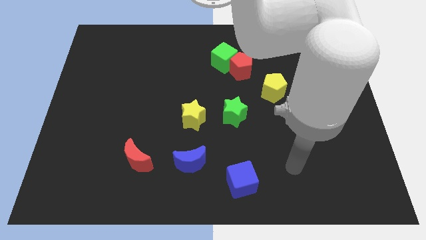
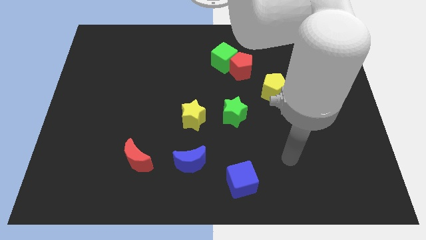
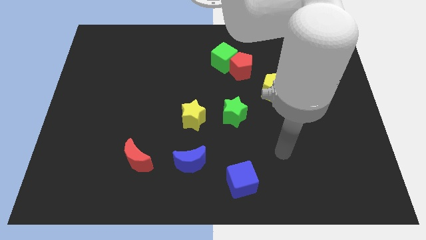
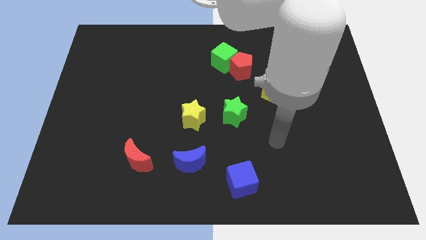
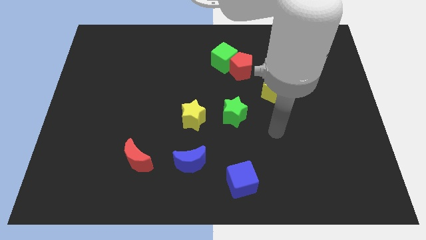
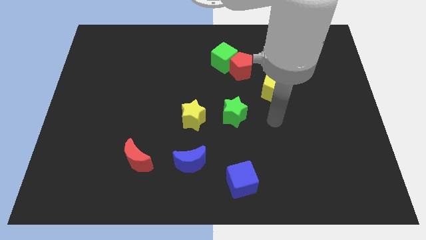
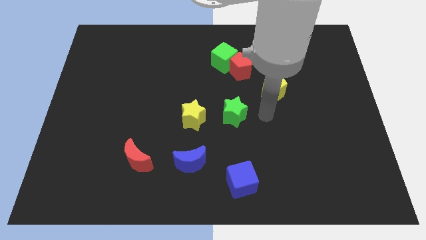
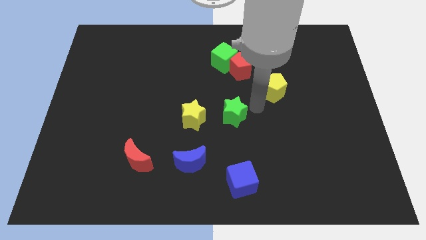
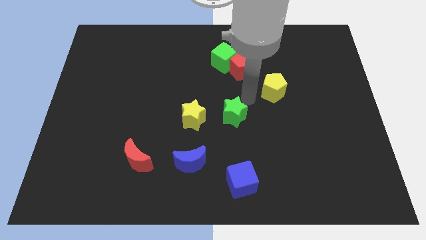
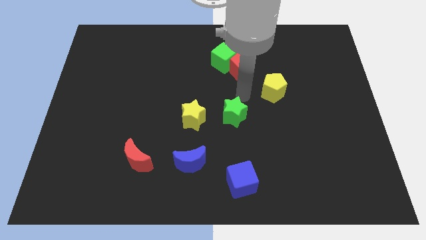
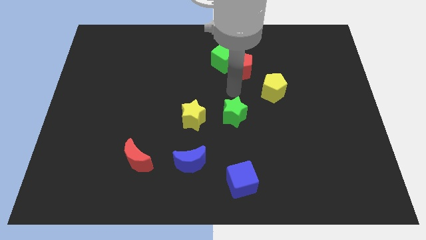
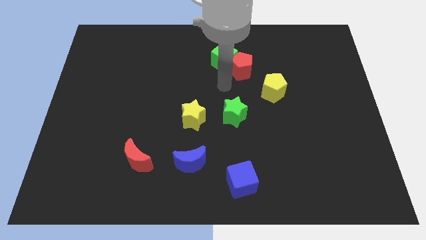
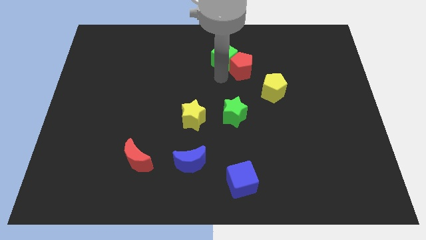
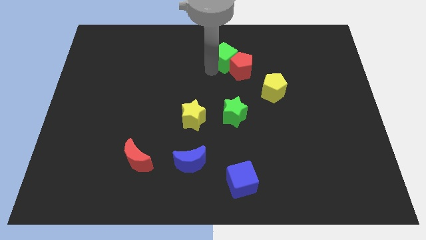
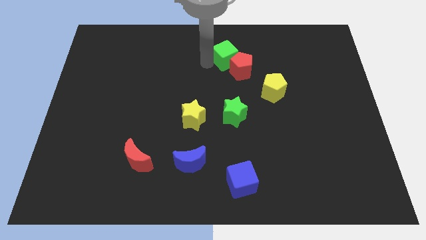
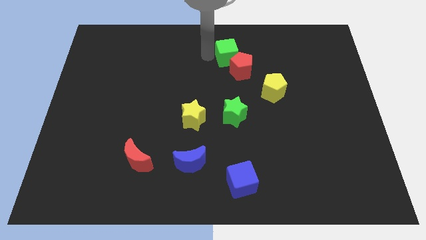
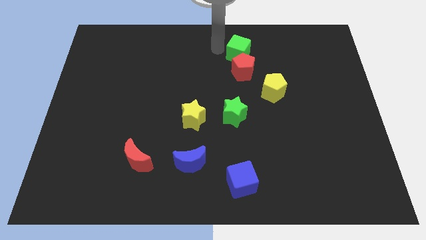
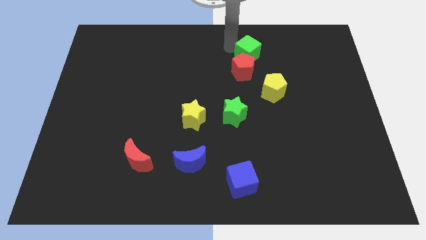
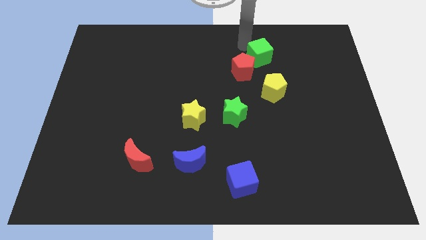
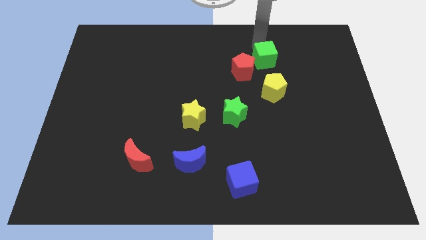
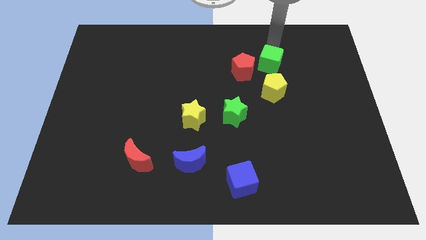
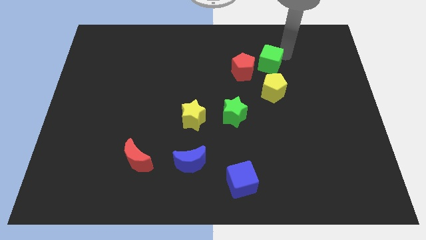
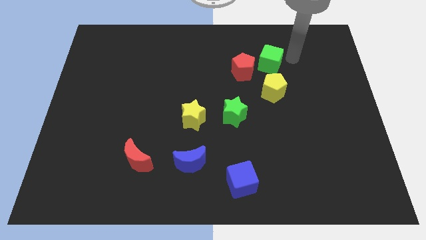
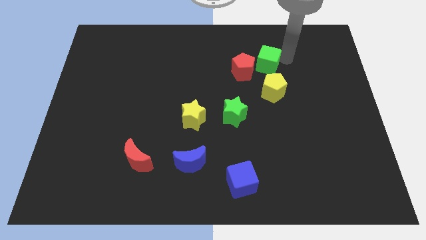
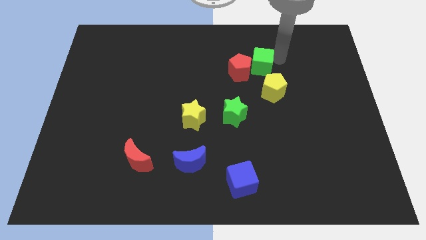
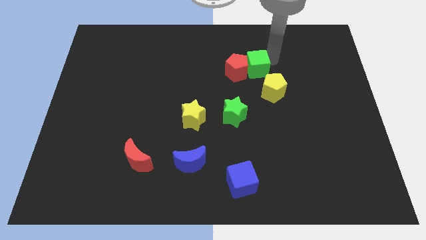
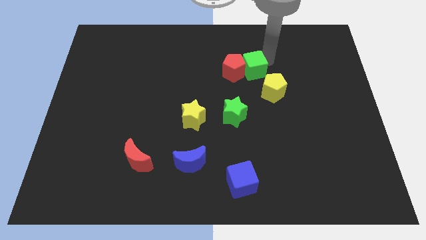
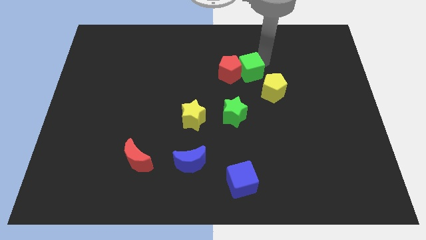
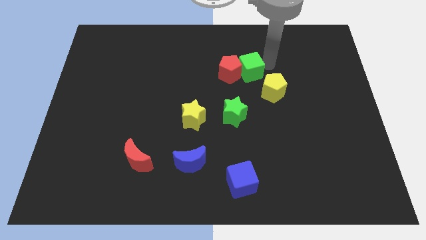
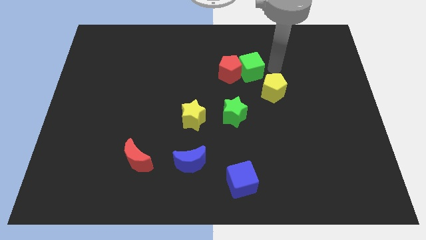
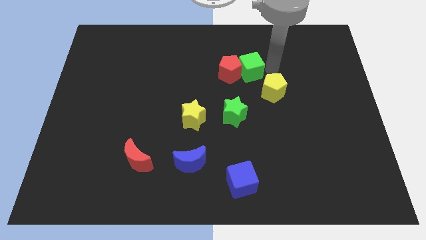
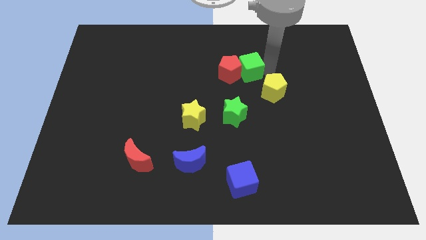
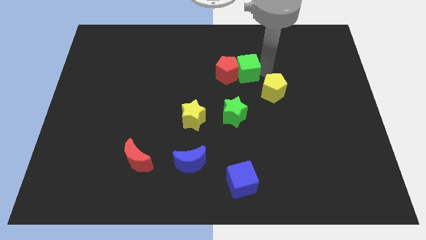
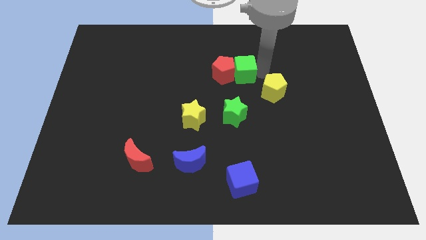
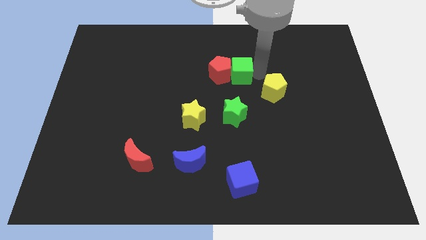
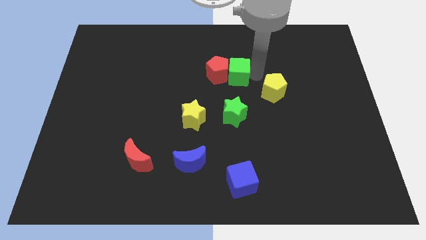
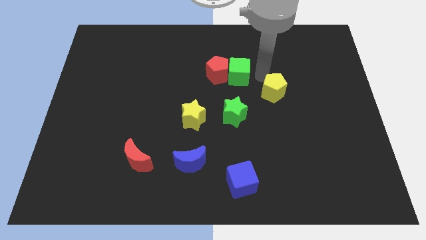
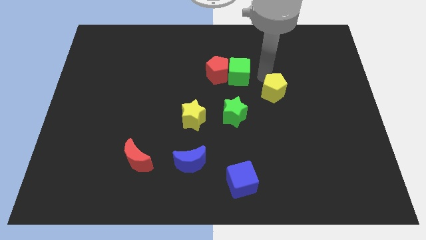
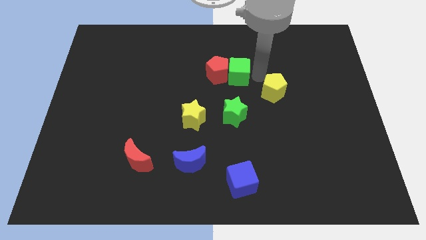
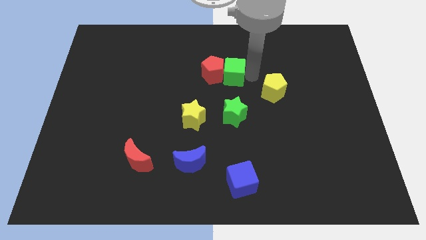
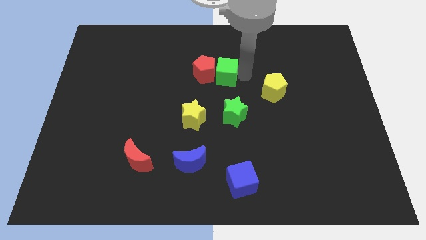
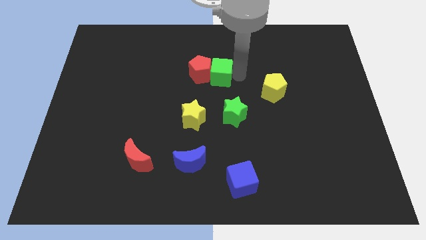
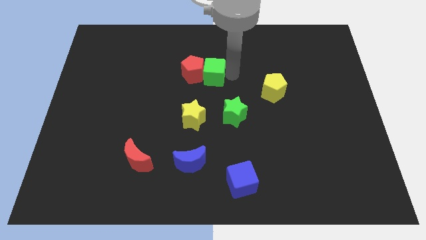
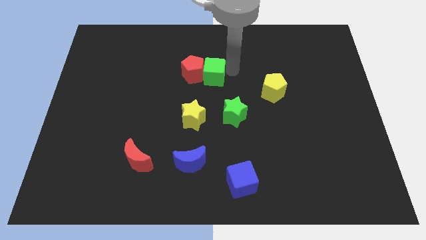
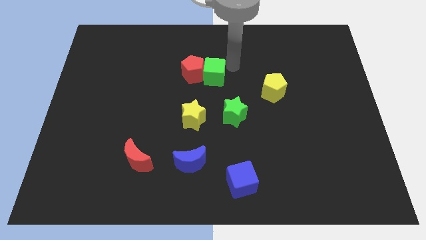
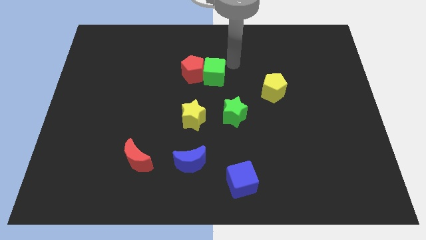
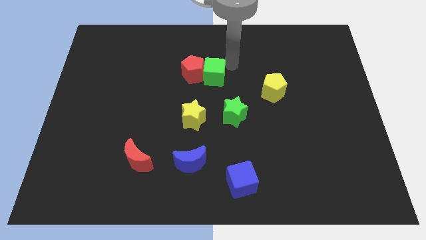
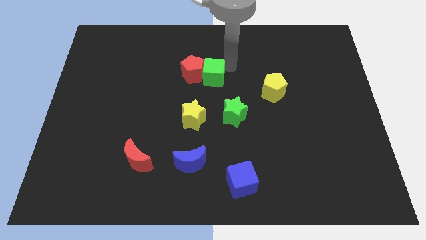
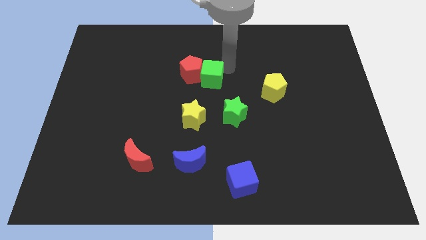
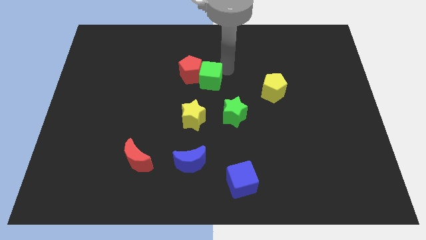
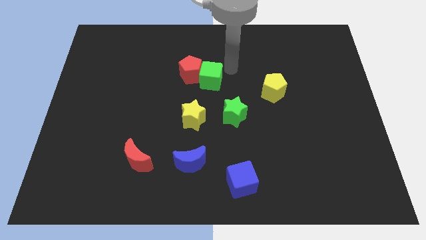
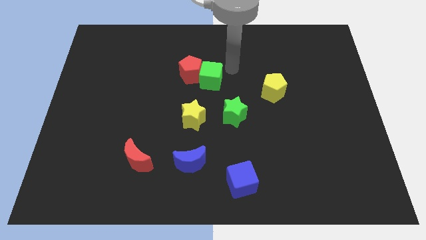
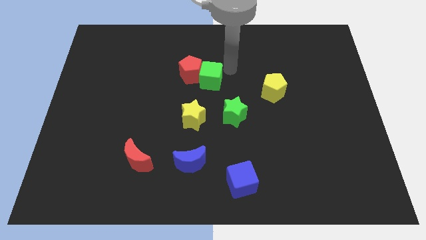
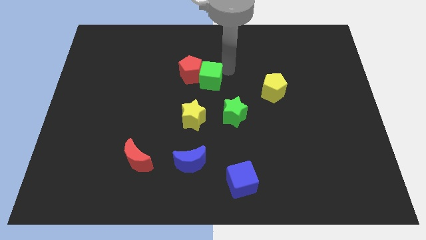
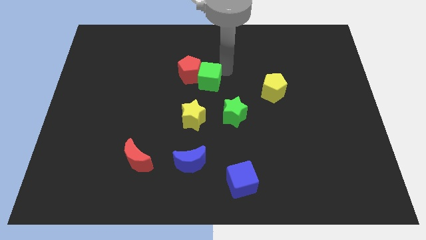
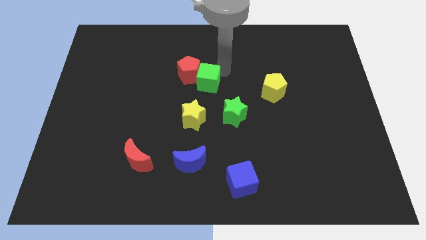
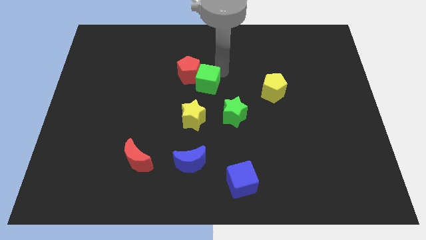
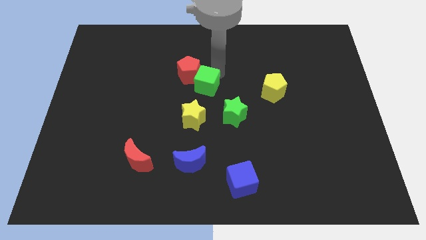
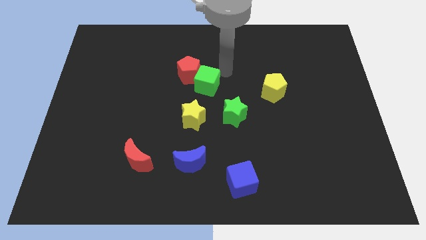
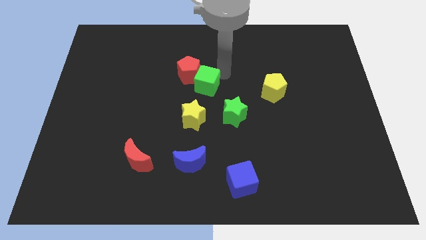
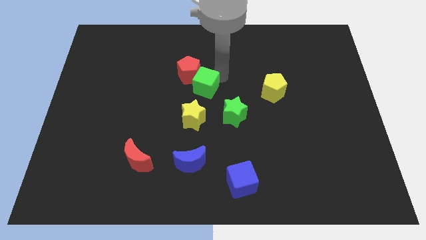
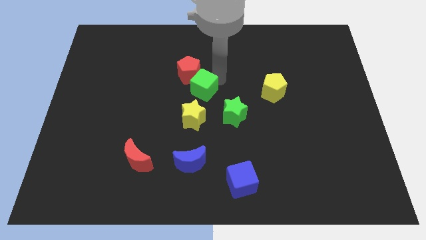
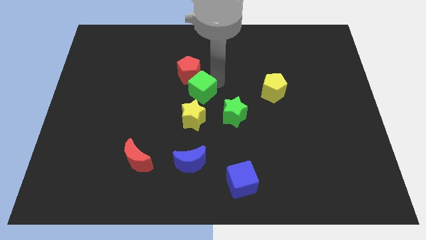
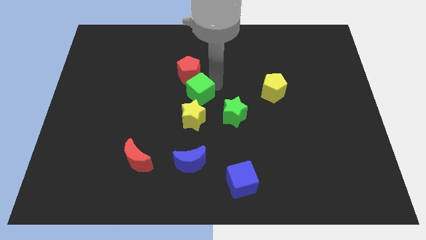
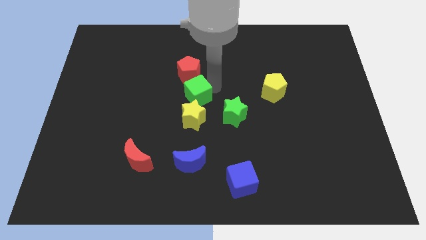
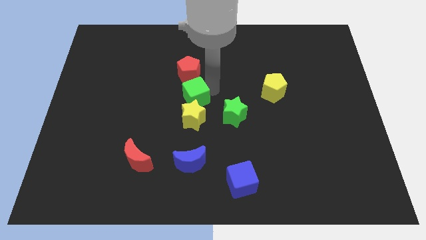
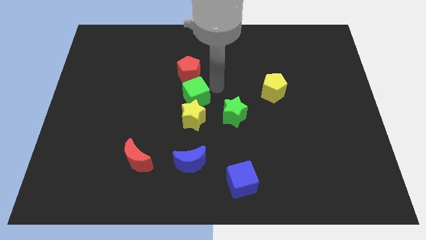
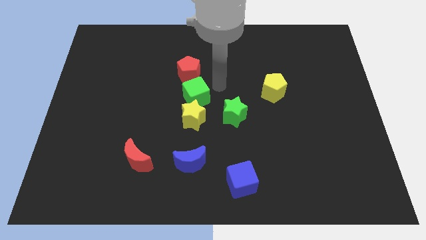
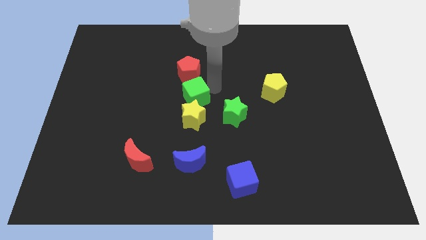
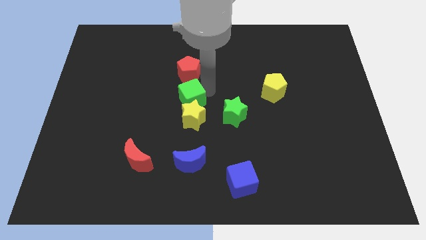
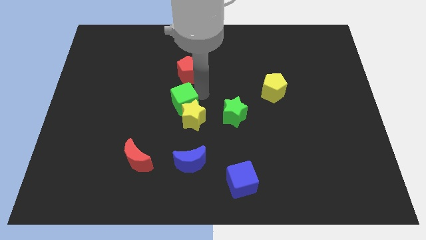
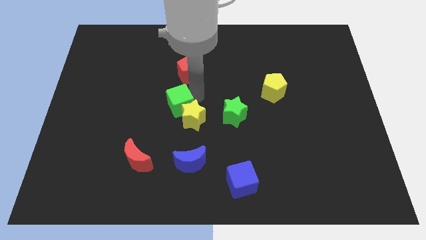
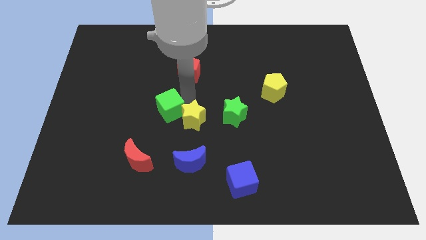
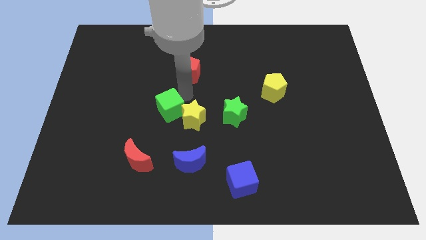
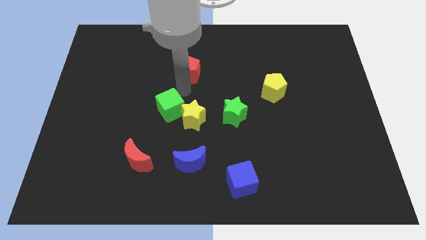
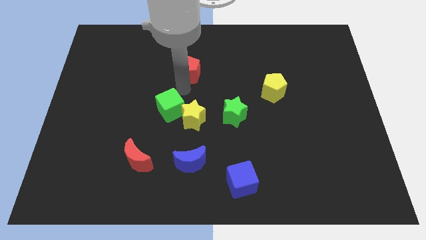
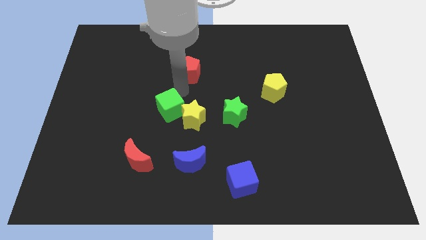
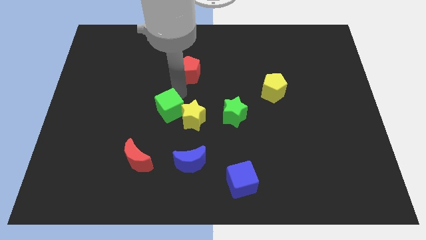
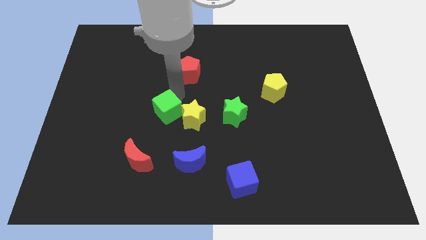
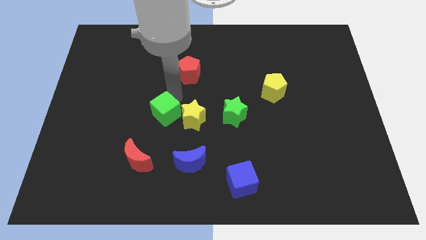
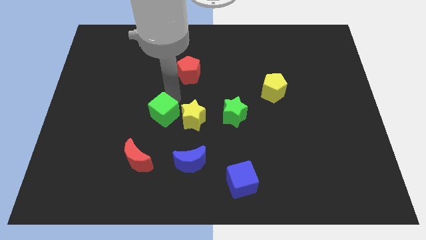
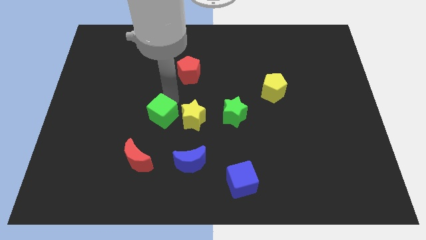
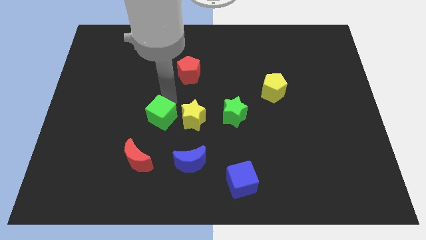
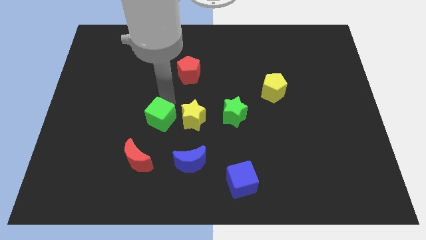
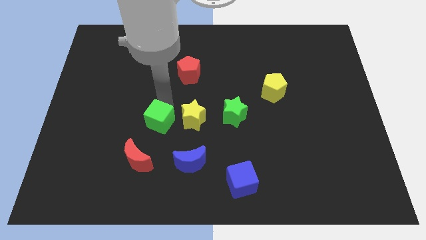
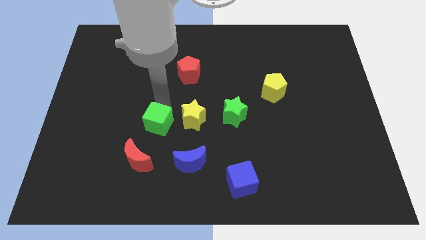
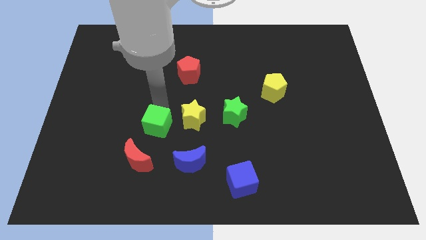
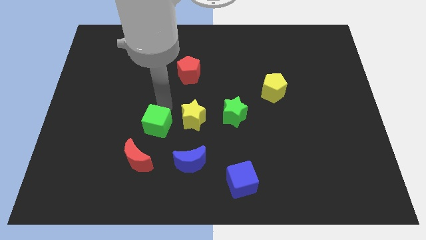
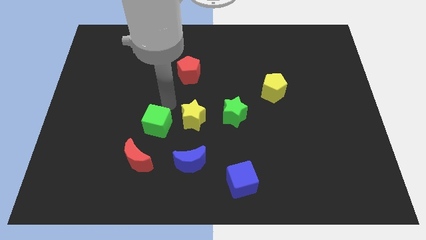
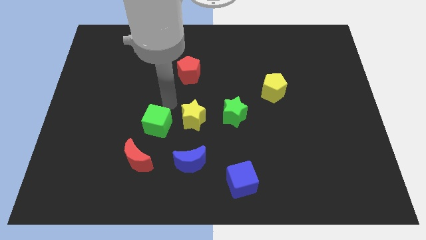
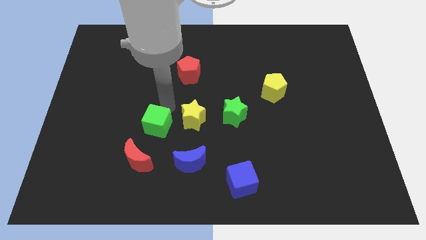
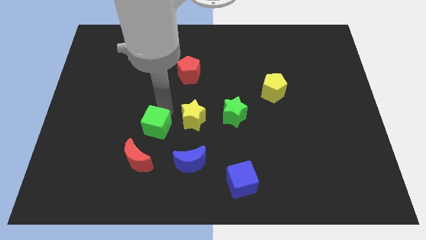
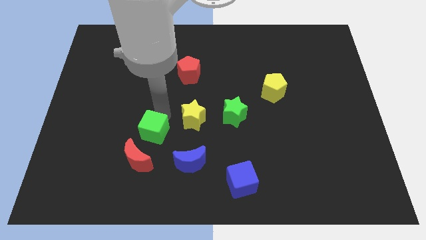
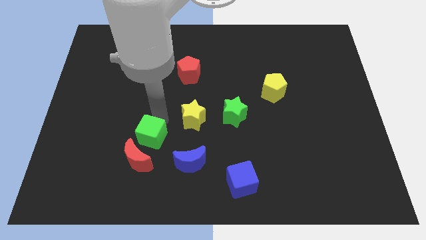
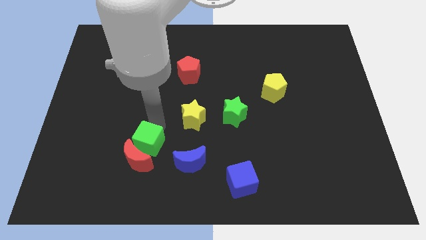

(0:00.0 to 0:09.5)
slide the green cube close to the red moon
